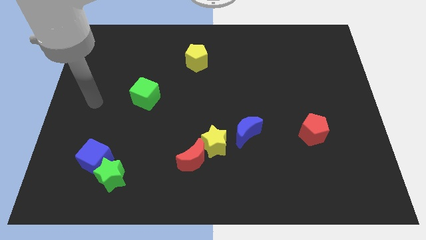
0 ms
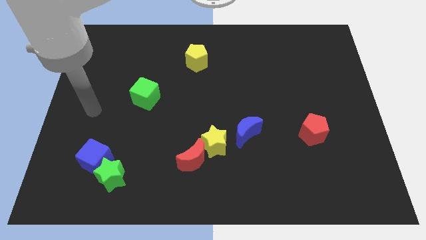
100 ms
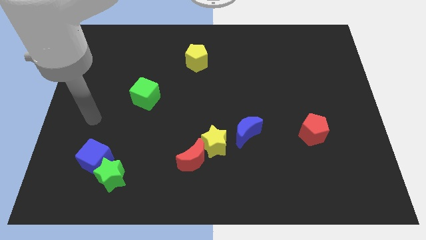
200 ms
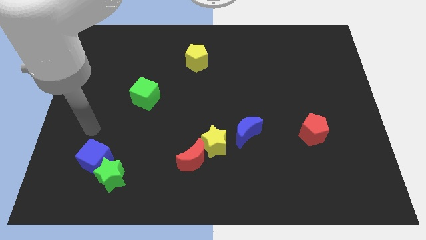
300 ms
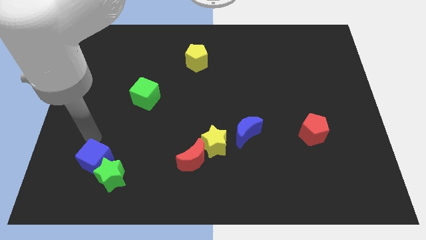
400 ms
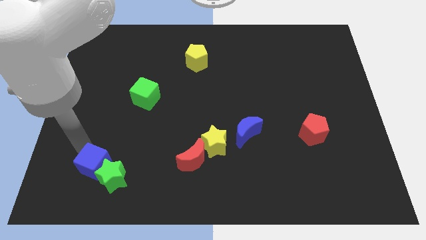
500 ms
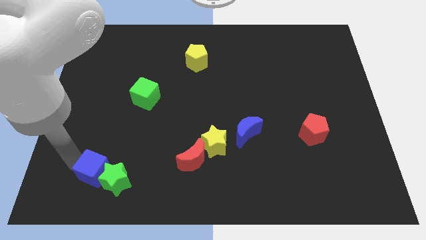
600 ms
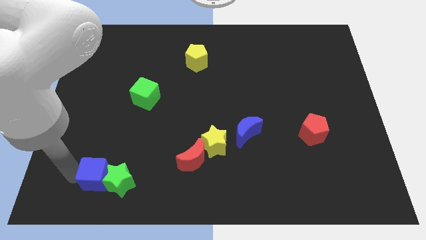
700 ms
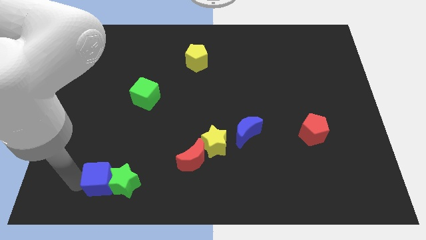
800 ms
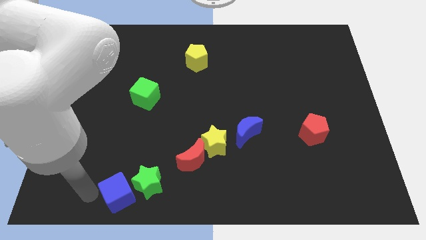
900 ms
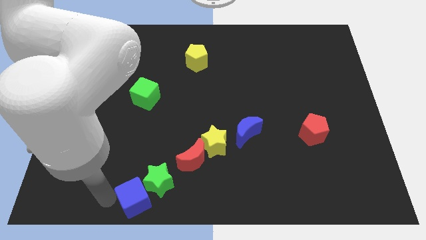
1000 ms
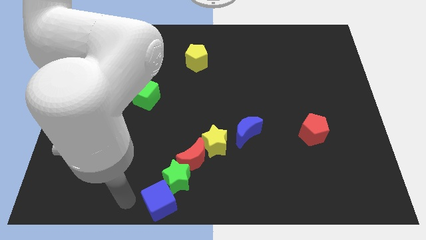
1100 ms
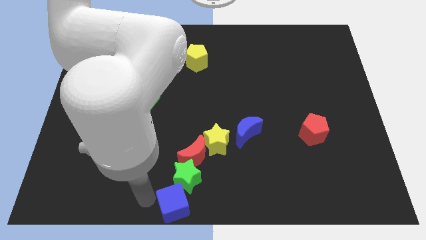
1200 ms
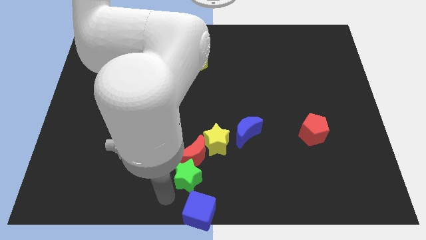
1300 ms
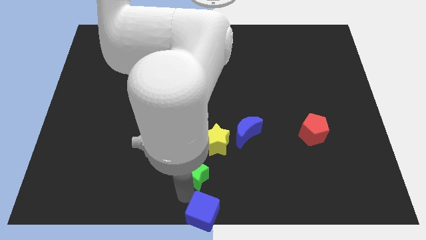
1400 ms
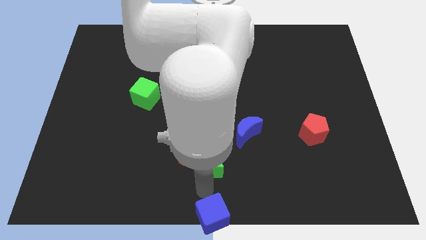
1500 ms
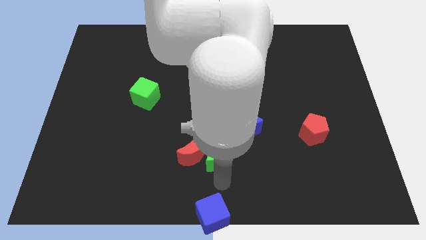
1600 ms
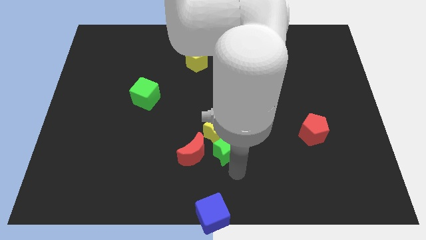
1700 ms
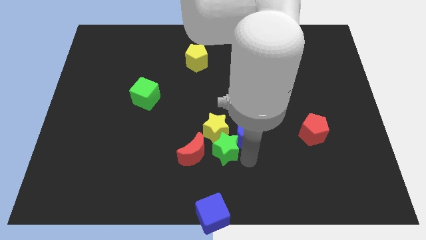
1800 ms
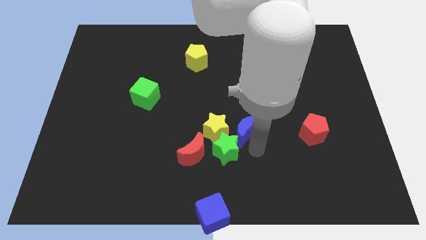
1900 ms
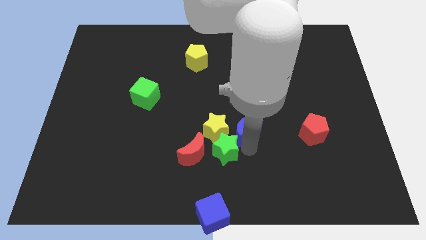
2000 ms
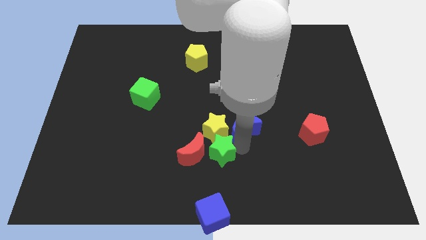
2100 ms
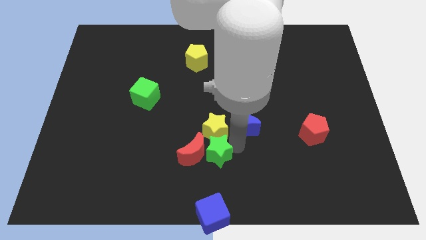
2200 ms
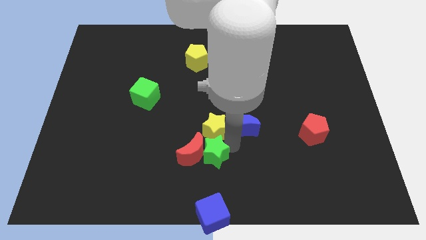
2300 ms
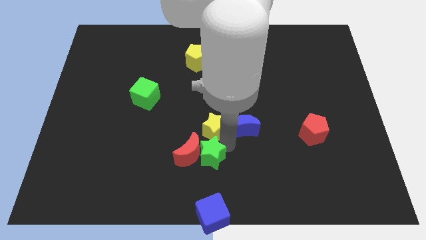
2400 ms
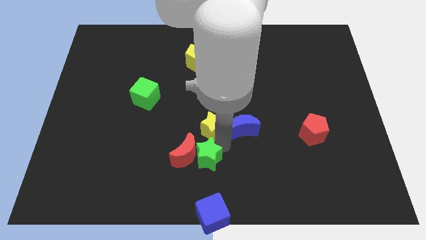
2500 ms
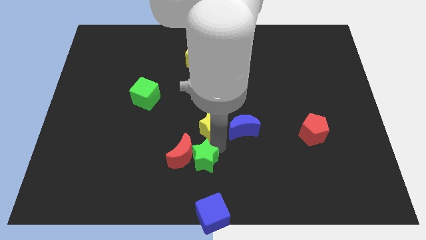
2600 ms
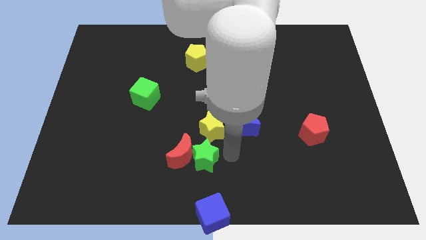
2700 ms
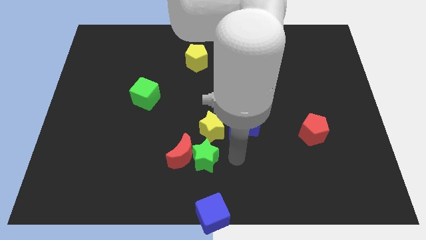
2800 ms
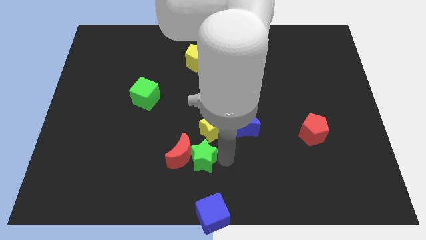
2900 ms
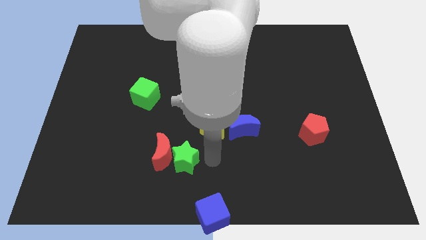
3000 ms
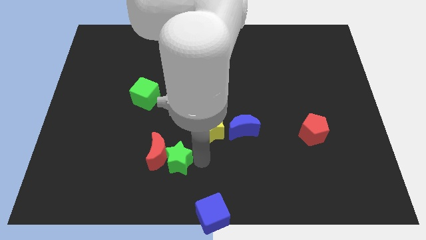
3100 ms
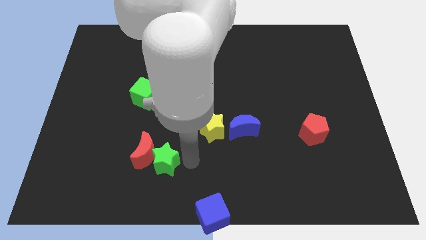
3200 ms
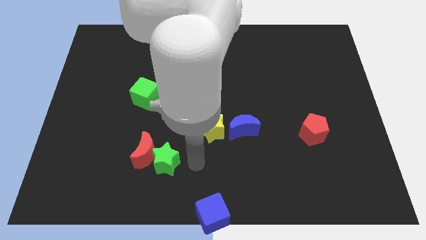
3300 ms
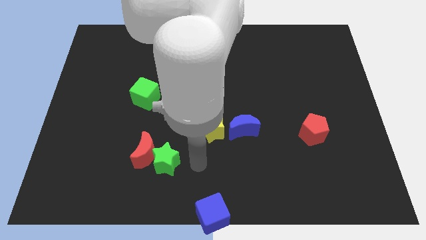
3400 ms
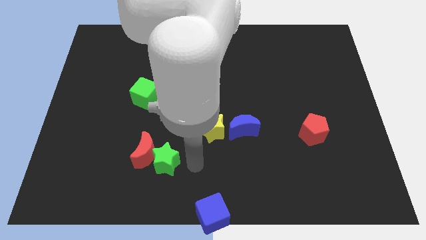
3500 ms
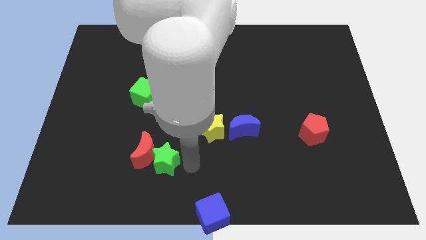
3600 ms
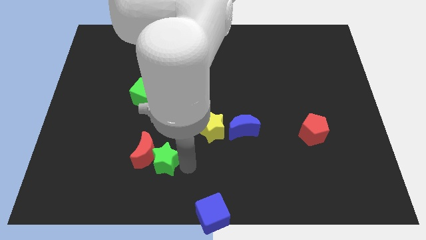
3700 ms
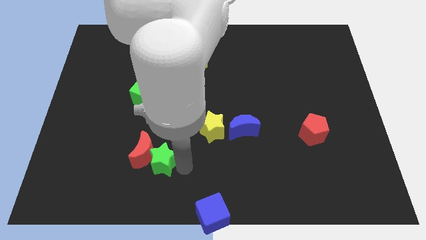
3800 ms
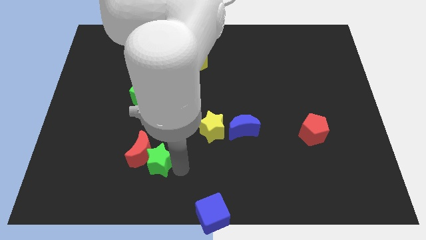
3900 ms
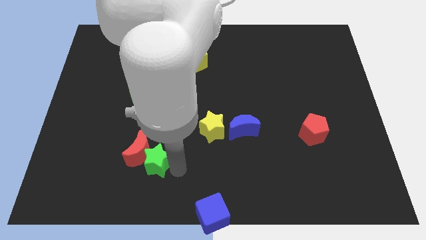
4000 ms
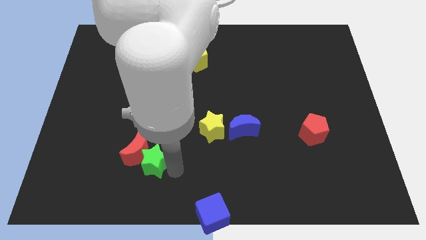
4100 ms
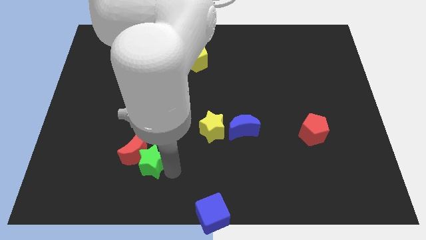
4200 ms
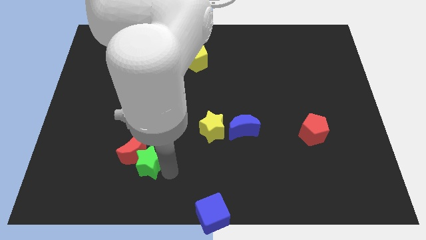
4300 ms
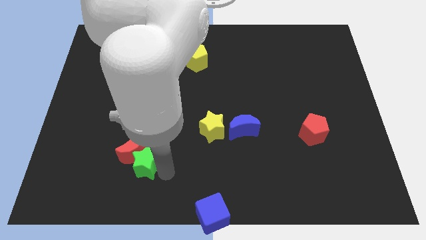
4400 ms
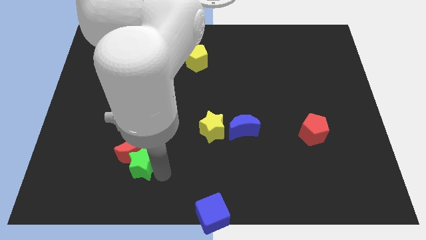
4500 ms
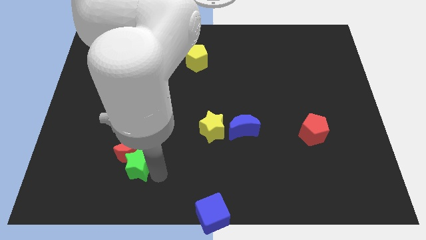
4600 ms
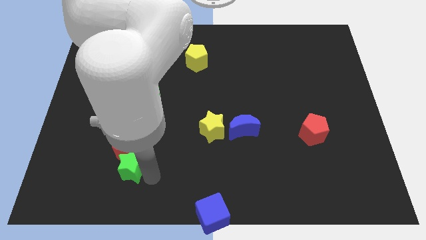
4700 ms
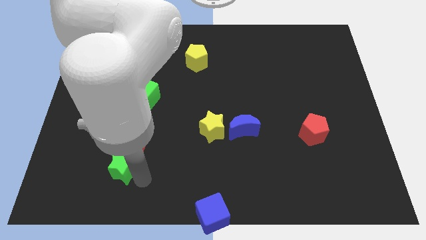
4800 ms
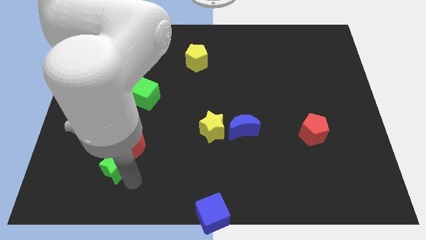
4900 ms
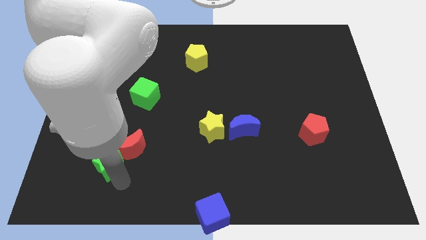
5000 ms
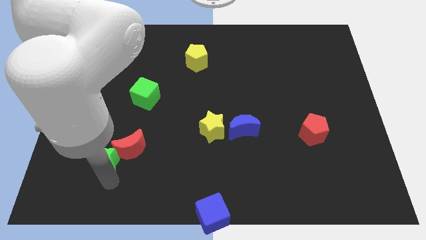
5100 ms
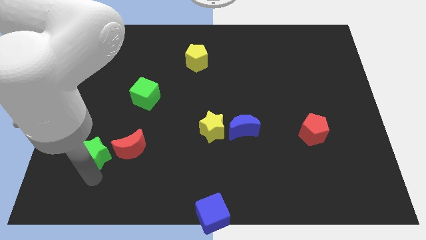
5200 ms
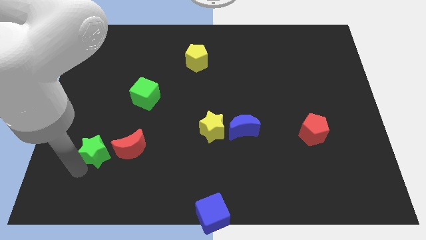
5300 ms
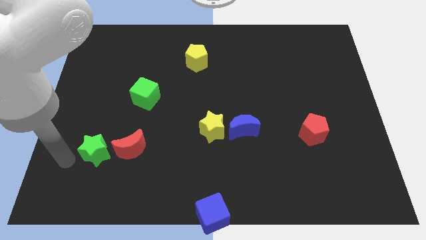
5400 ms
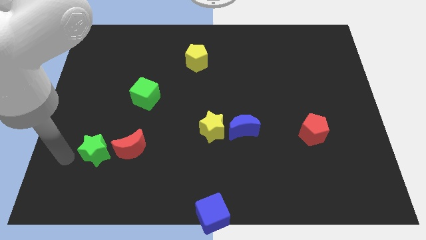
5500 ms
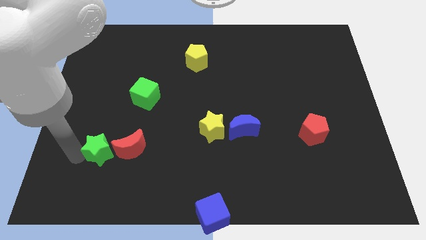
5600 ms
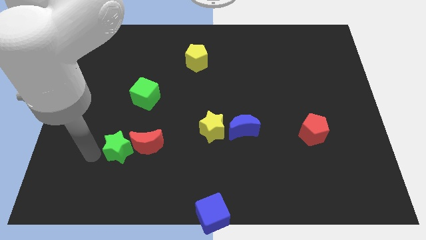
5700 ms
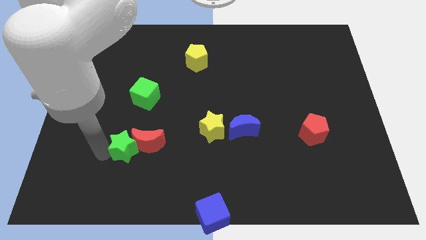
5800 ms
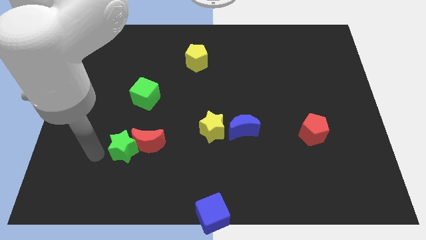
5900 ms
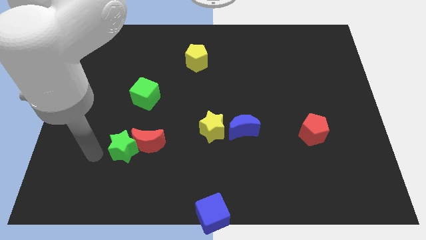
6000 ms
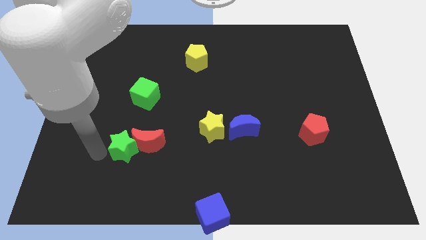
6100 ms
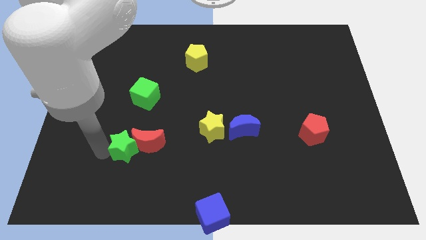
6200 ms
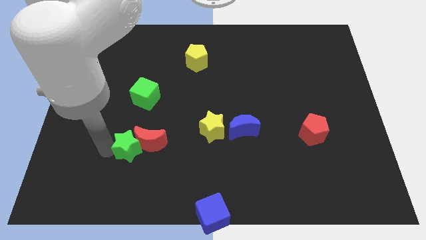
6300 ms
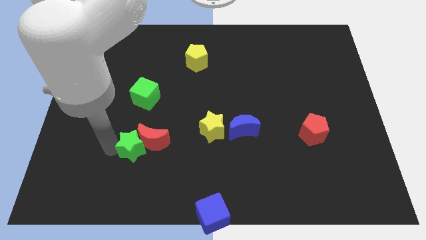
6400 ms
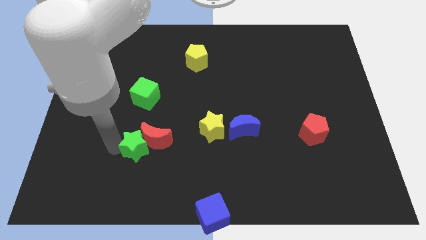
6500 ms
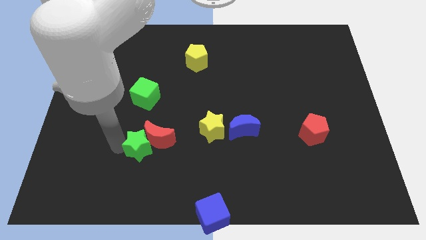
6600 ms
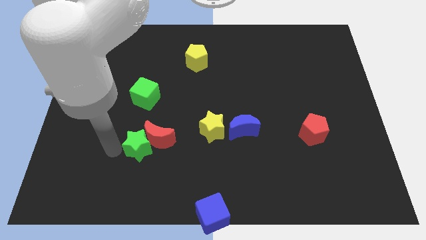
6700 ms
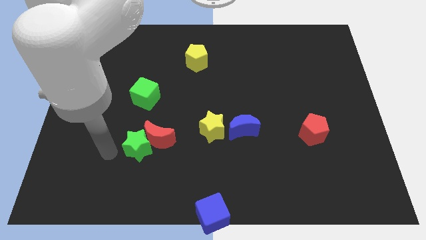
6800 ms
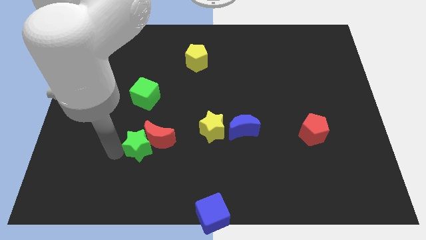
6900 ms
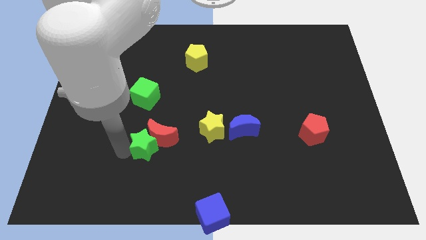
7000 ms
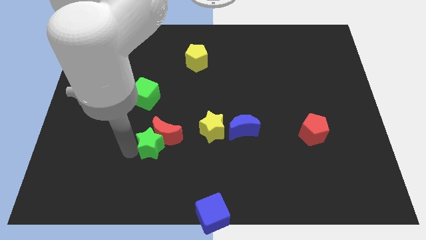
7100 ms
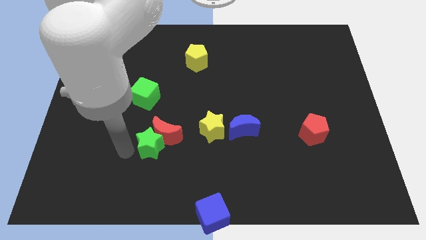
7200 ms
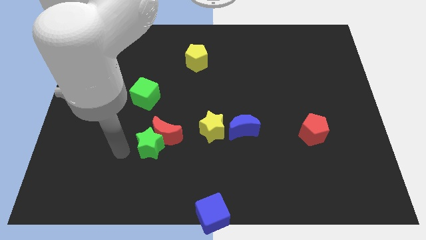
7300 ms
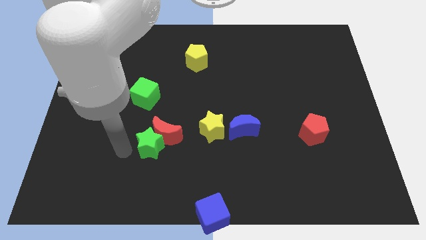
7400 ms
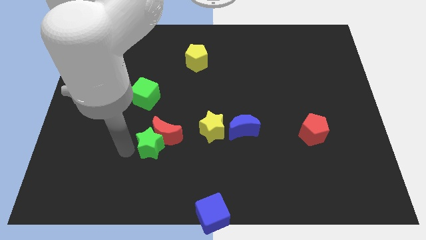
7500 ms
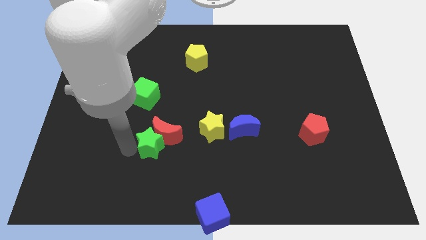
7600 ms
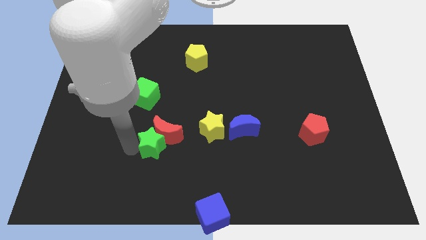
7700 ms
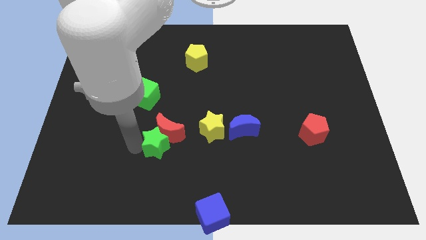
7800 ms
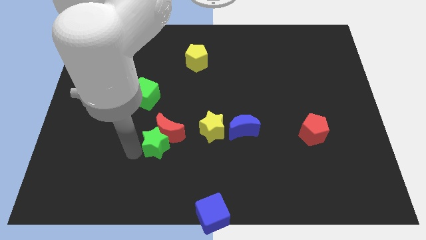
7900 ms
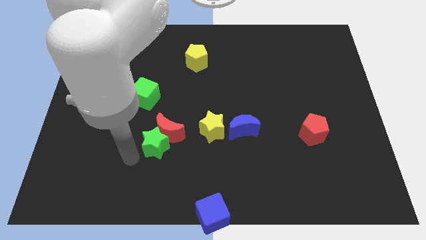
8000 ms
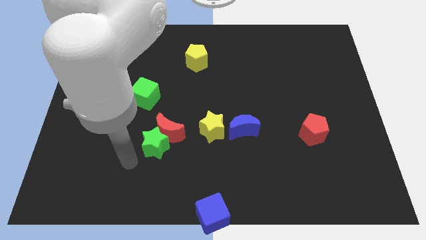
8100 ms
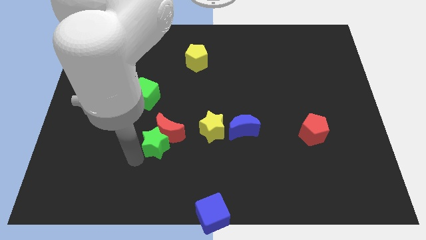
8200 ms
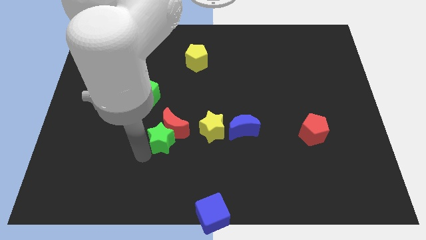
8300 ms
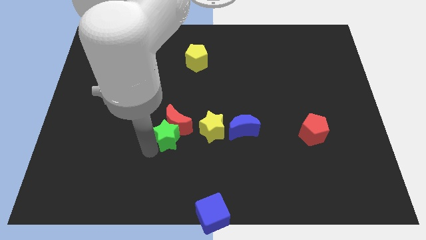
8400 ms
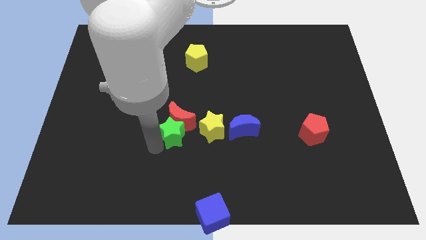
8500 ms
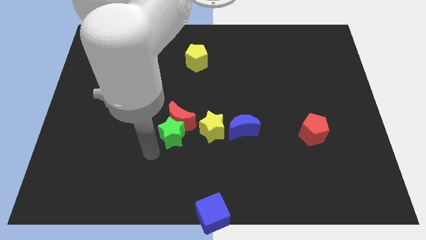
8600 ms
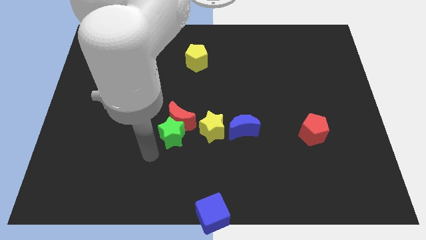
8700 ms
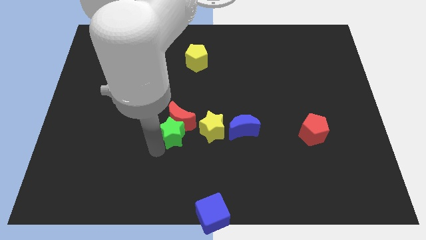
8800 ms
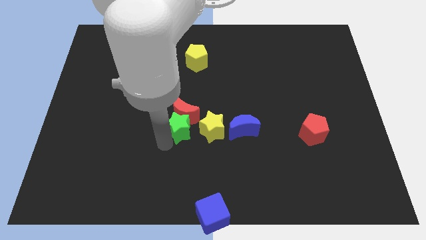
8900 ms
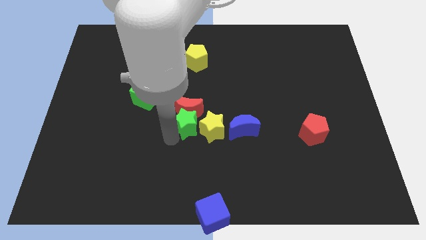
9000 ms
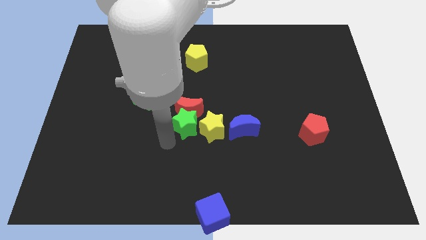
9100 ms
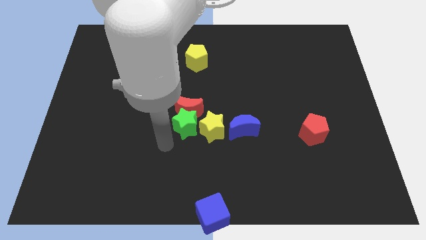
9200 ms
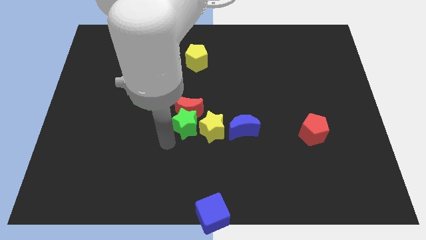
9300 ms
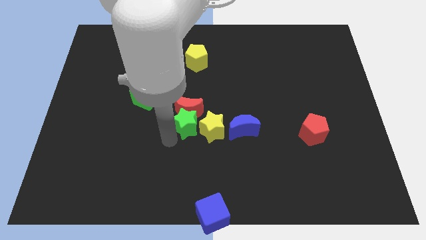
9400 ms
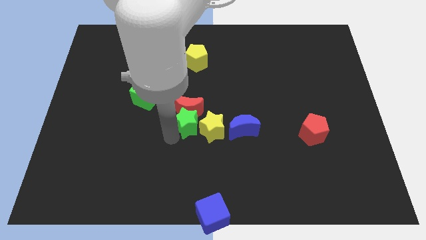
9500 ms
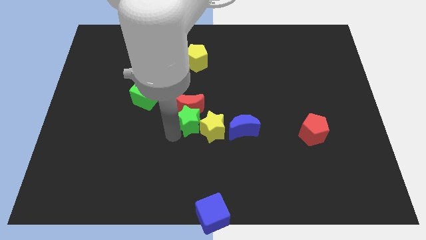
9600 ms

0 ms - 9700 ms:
move the green star up and to the right diagonally
